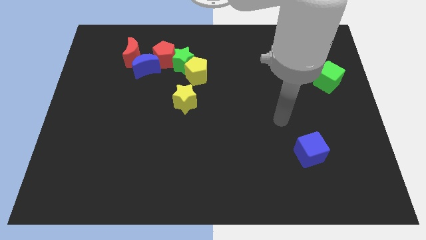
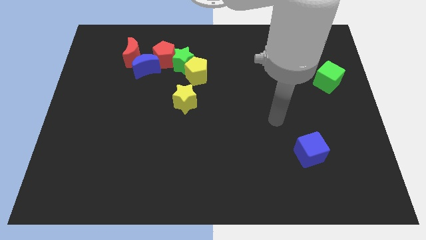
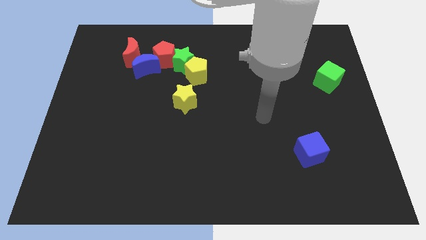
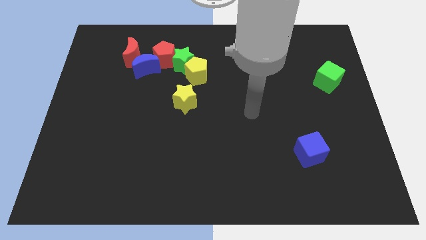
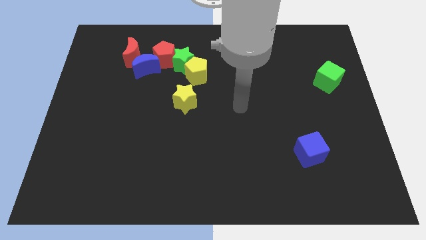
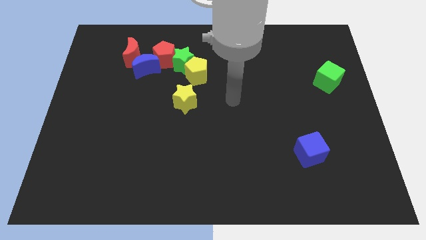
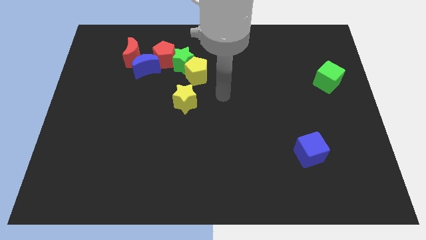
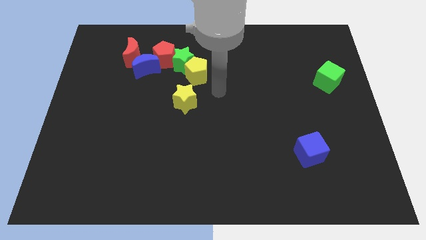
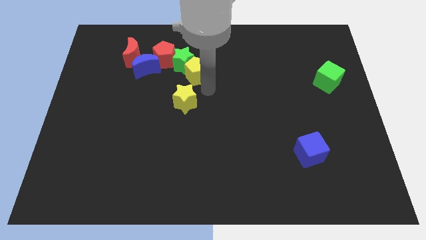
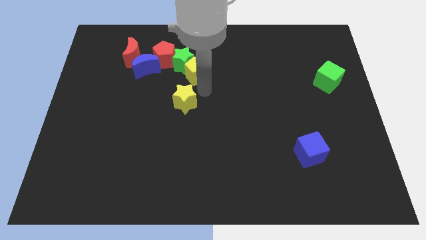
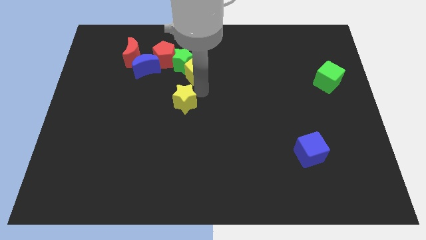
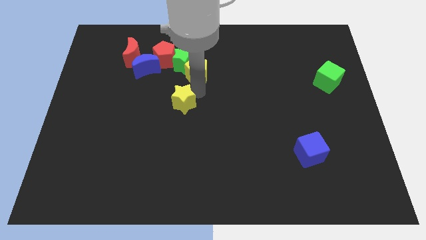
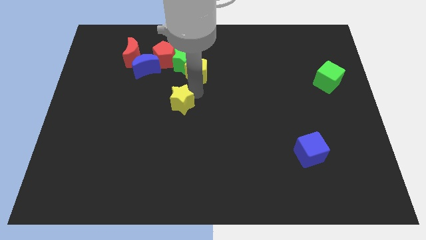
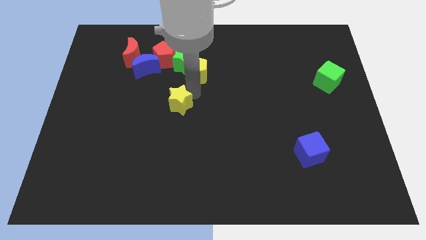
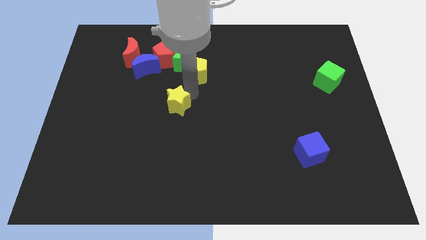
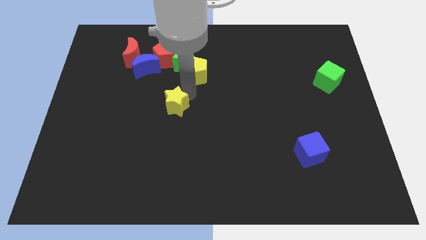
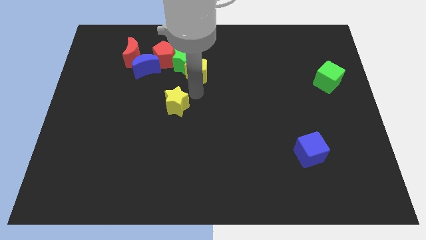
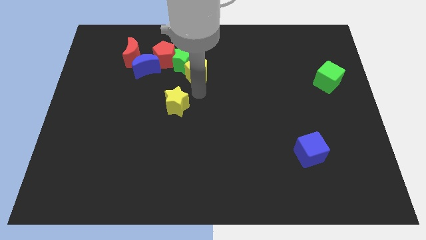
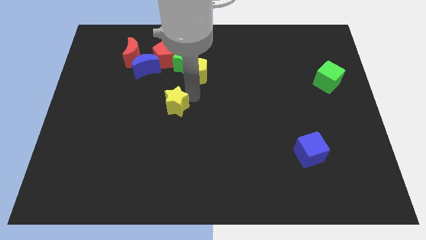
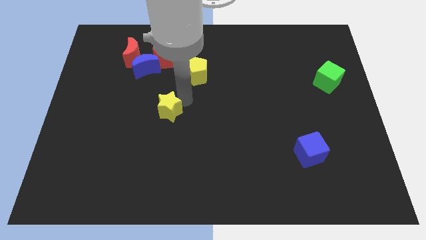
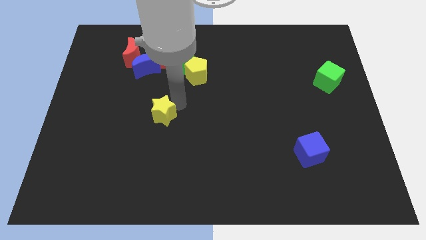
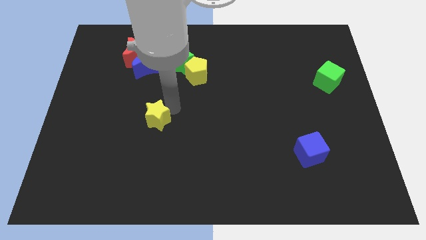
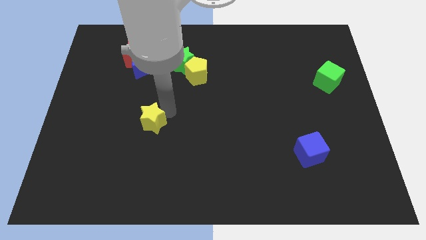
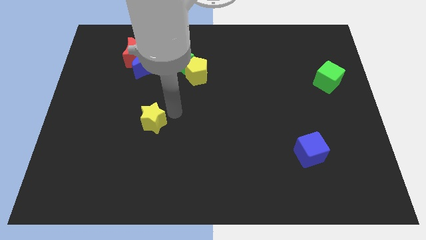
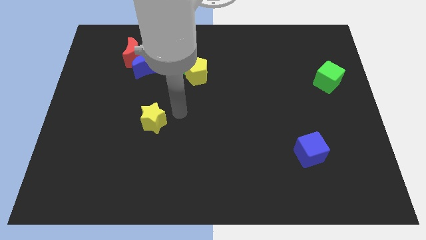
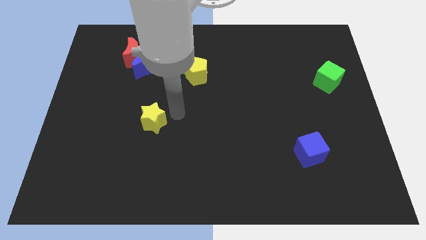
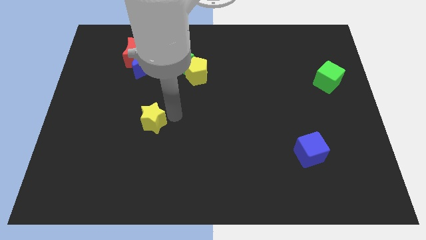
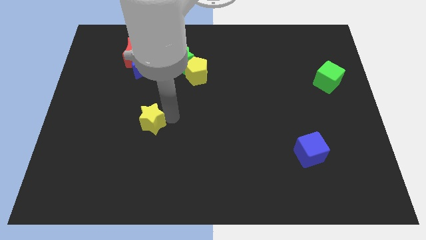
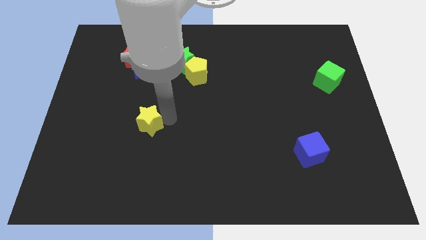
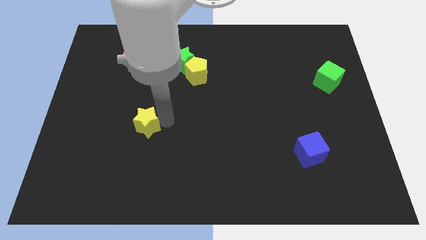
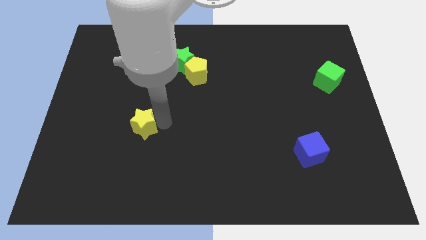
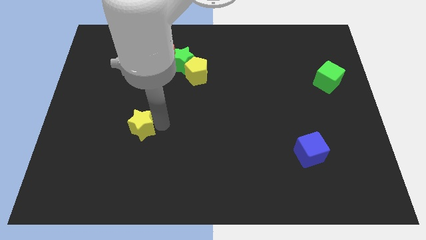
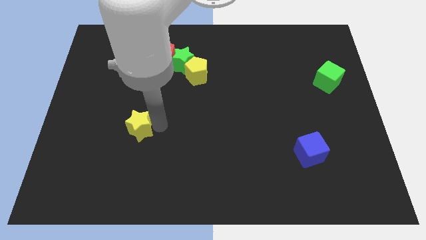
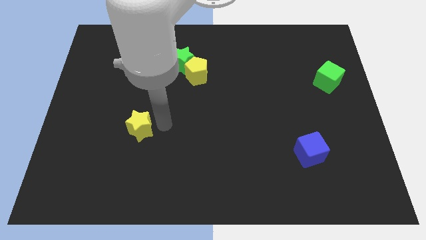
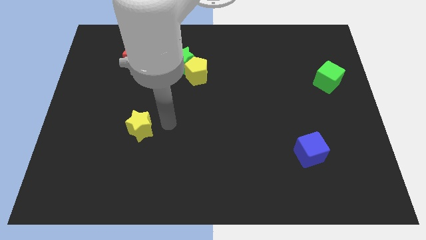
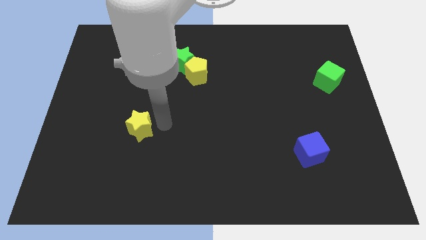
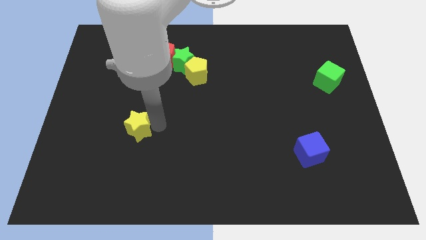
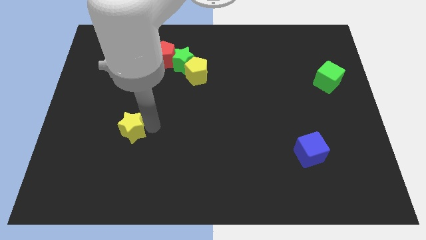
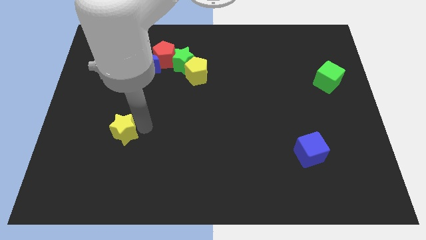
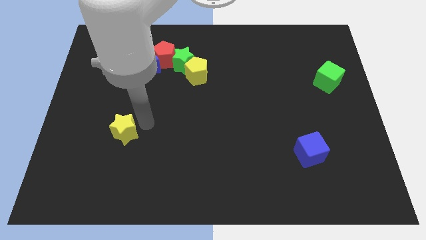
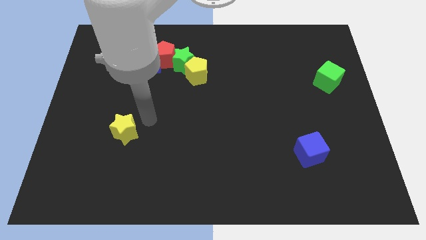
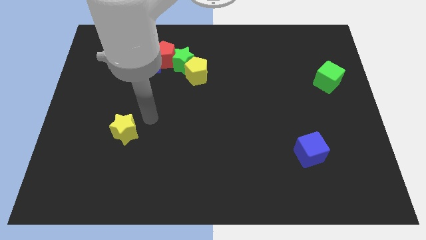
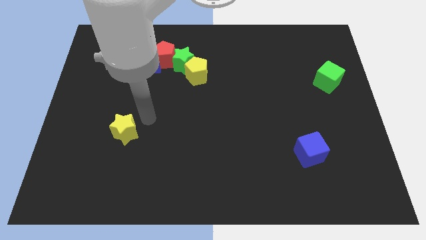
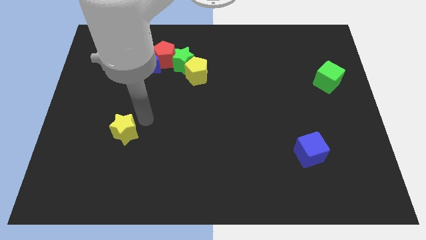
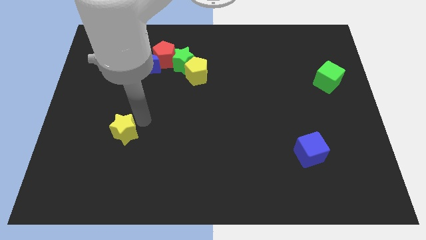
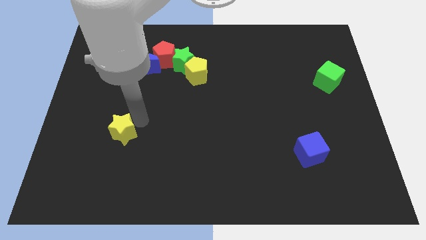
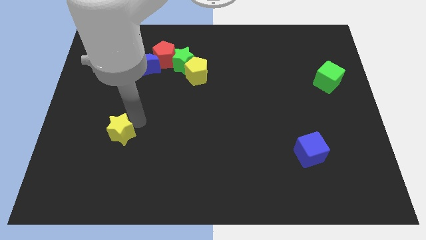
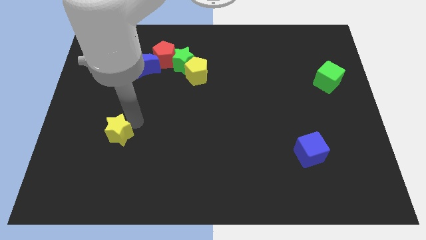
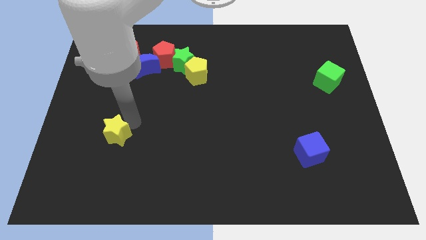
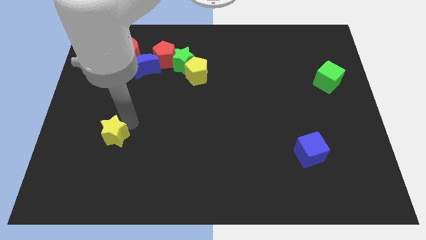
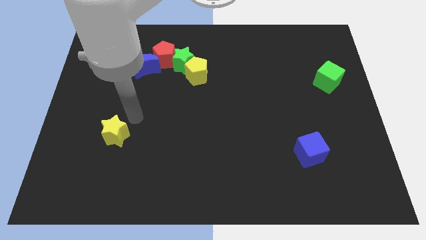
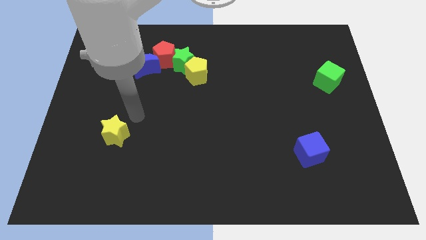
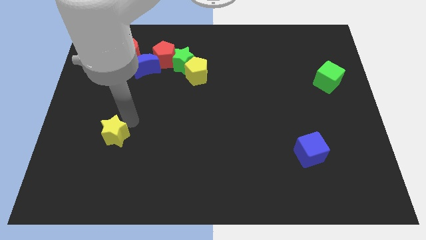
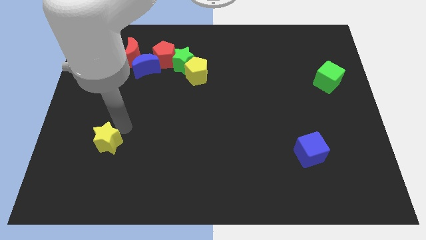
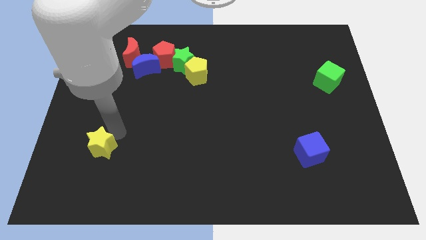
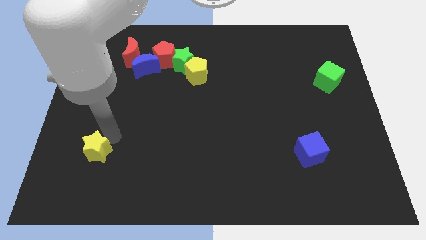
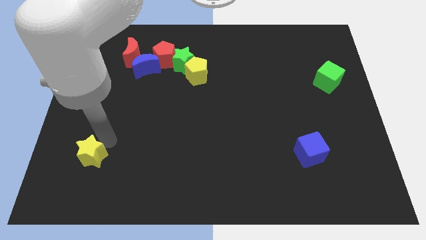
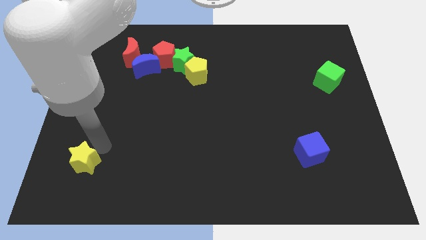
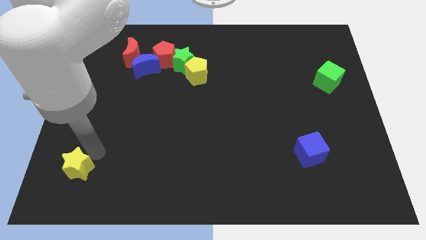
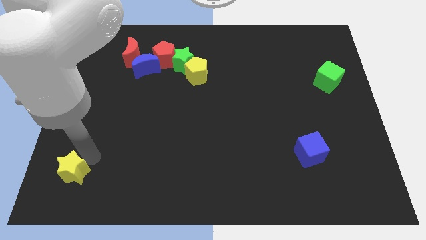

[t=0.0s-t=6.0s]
slide the yellow star to the bottom left

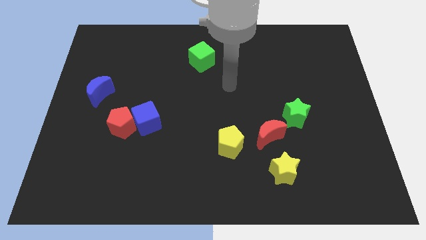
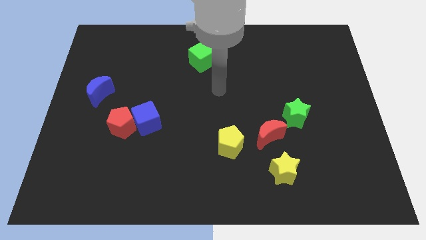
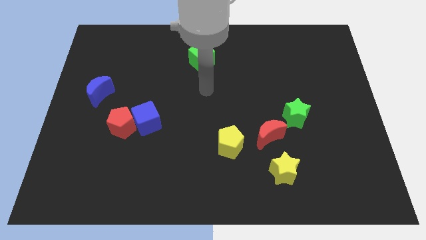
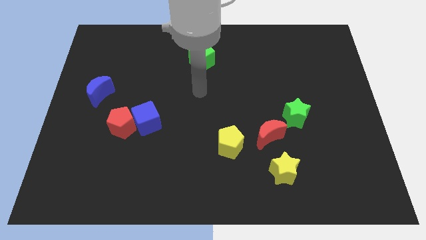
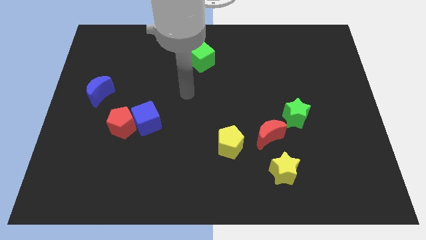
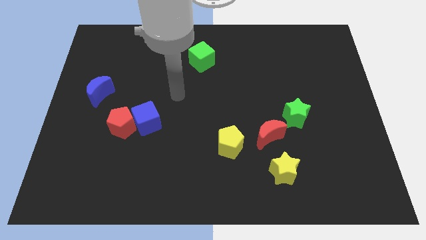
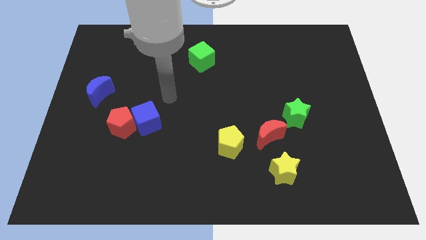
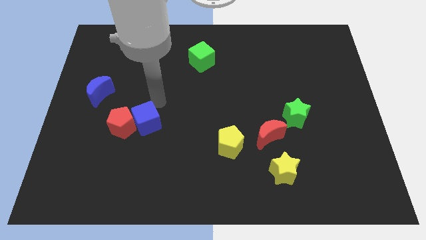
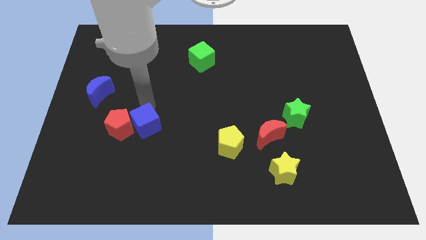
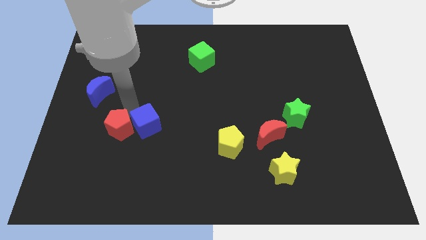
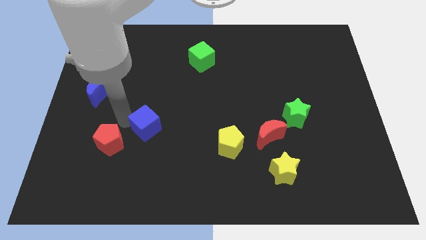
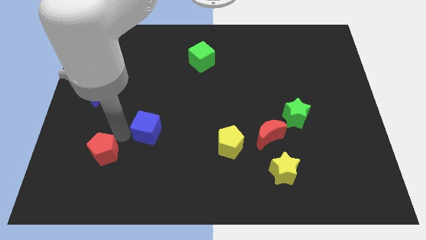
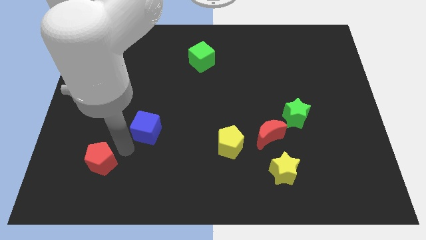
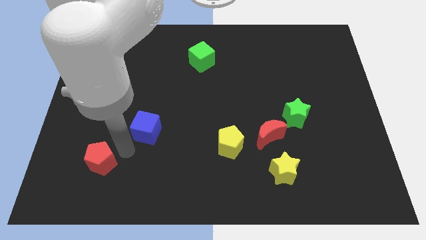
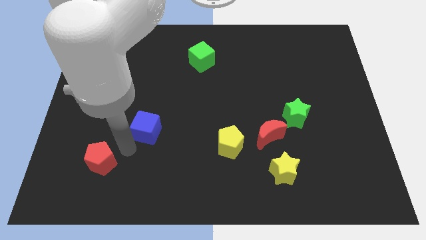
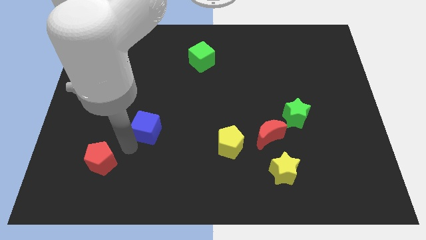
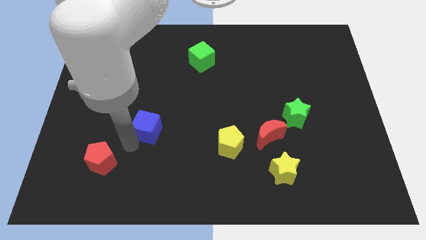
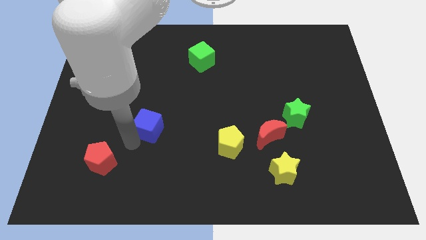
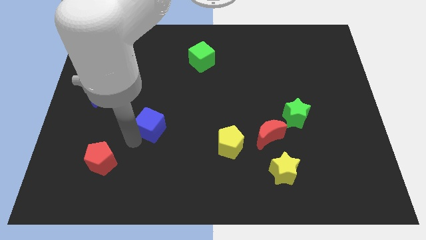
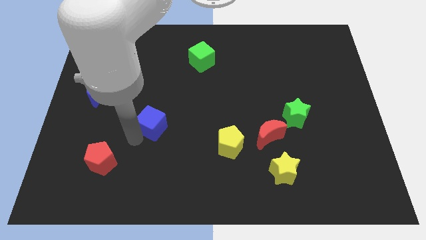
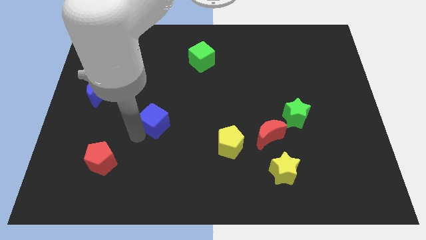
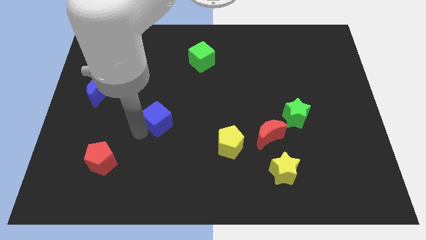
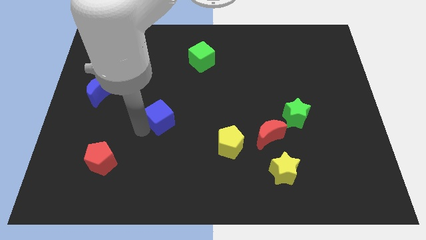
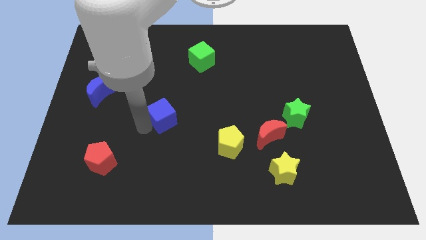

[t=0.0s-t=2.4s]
push the blue cube to the center of the board
